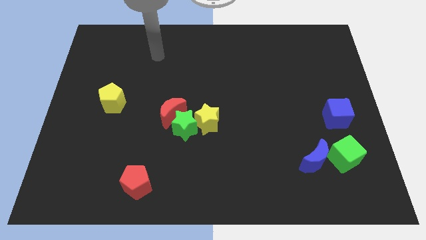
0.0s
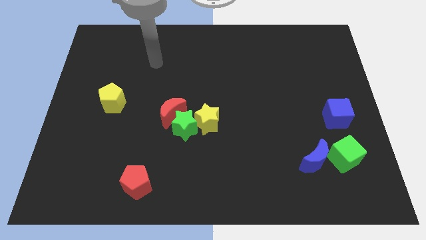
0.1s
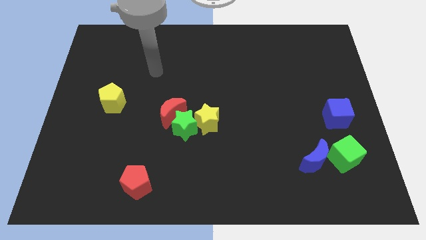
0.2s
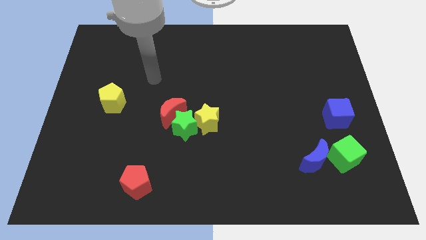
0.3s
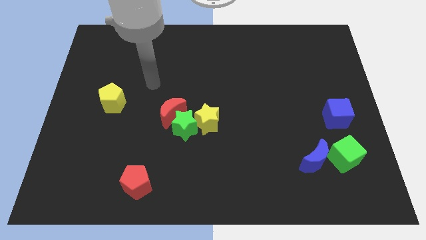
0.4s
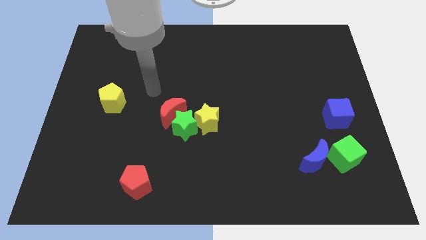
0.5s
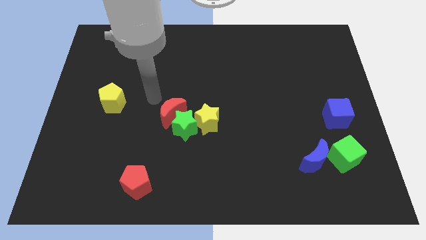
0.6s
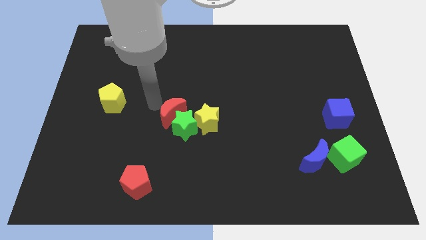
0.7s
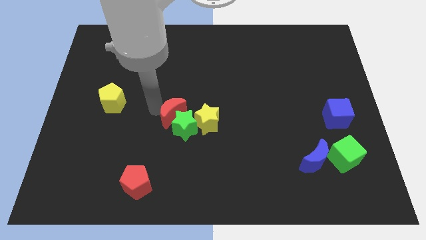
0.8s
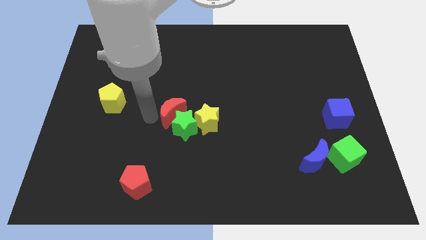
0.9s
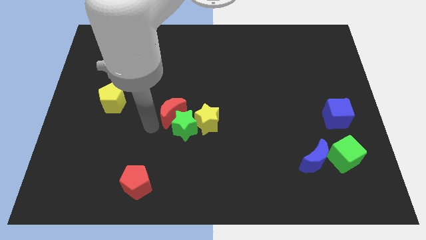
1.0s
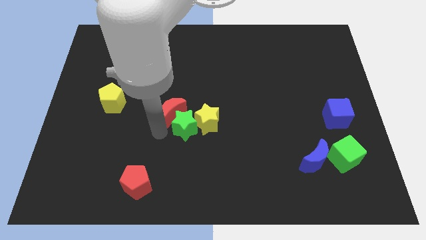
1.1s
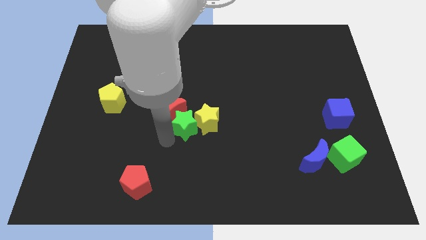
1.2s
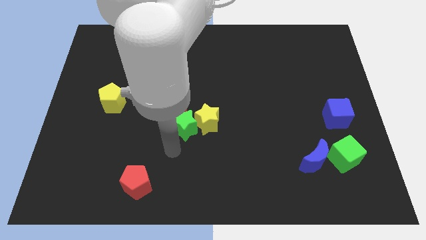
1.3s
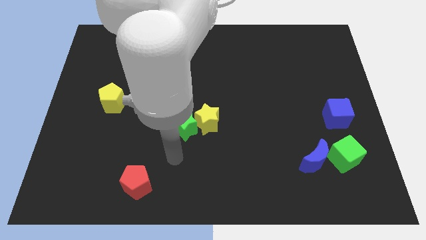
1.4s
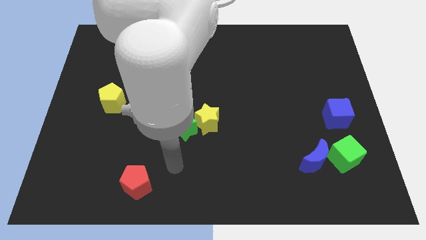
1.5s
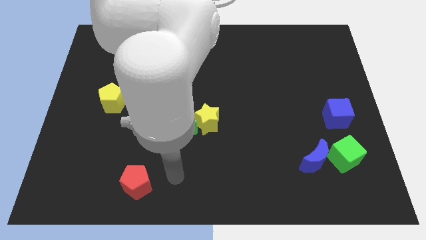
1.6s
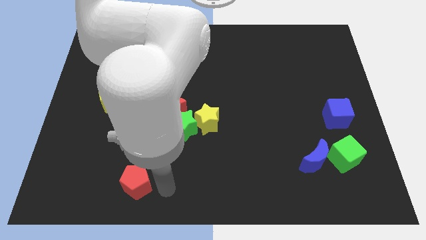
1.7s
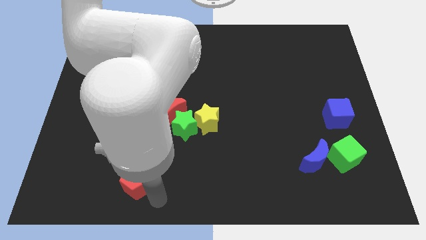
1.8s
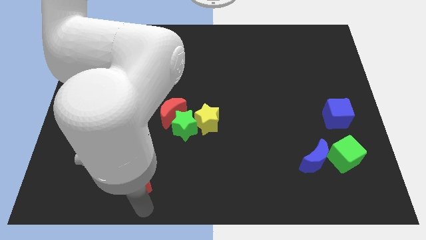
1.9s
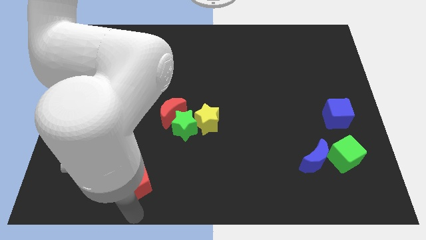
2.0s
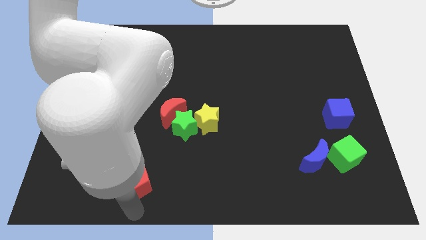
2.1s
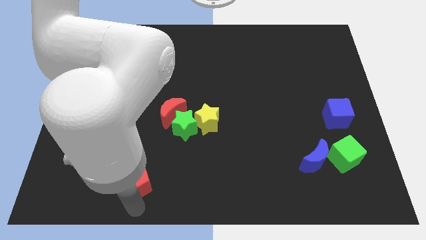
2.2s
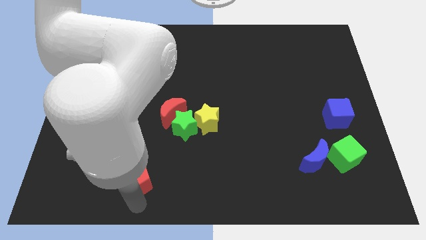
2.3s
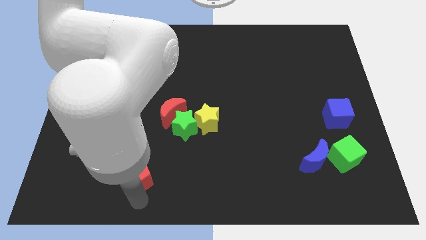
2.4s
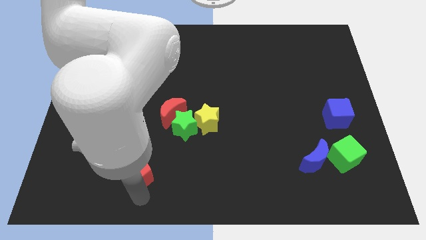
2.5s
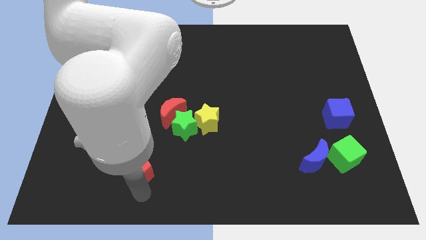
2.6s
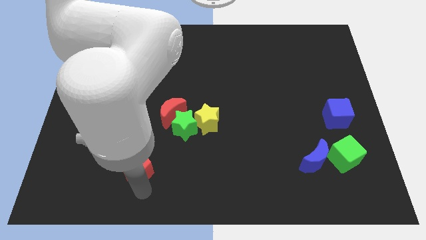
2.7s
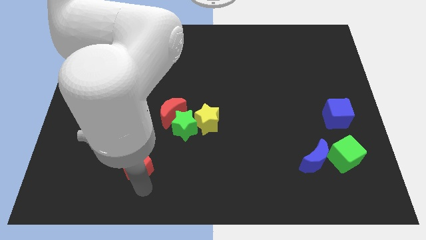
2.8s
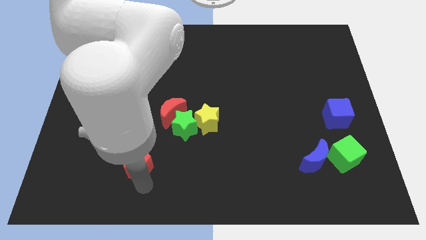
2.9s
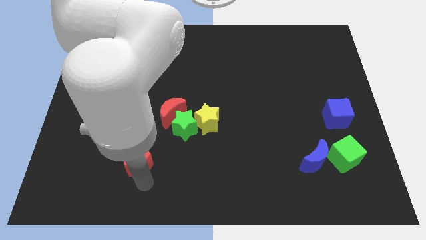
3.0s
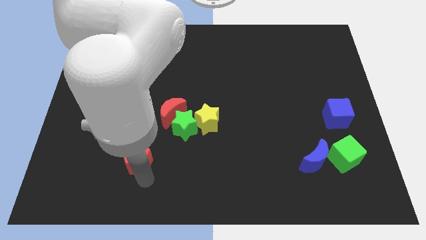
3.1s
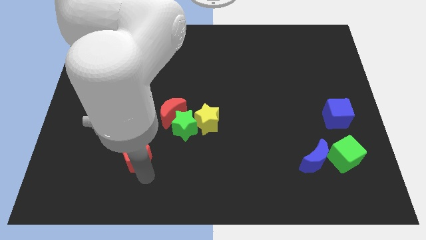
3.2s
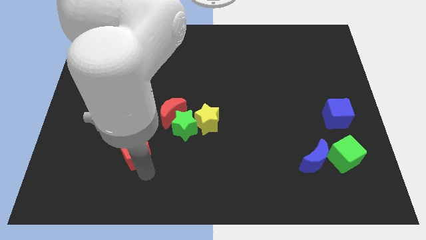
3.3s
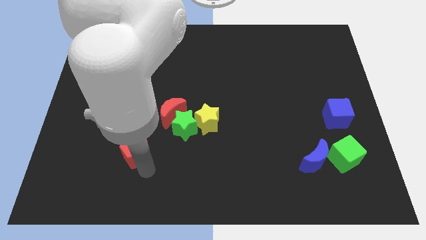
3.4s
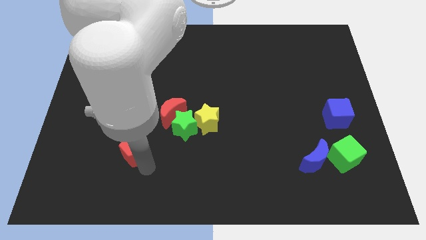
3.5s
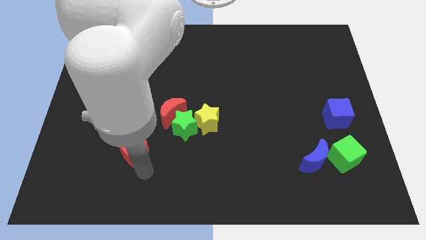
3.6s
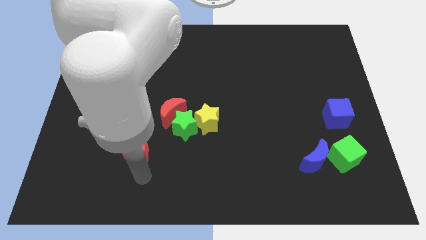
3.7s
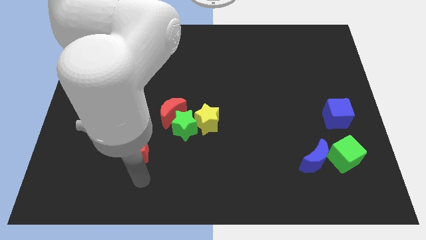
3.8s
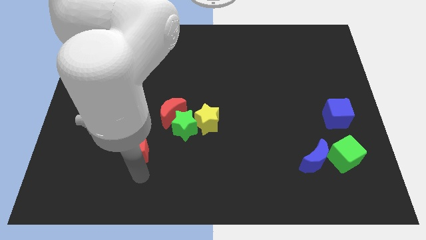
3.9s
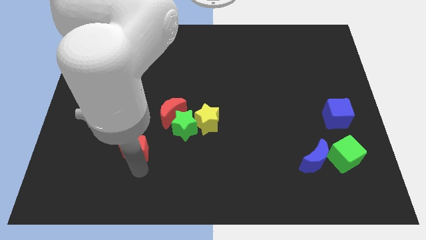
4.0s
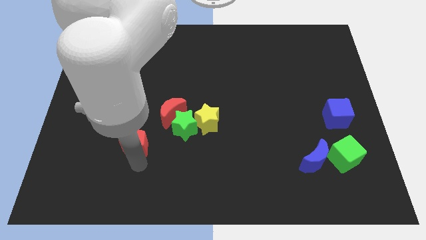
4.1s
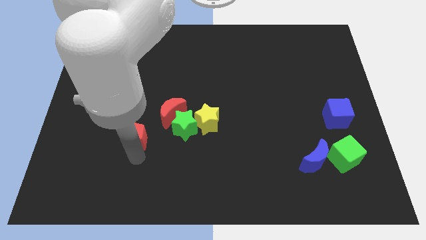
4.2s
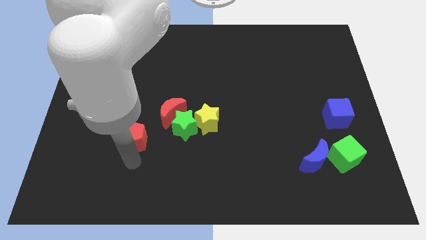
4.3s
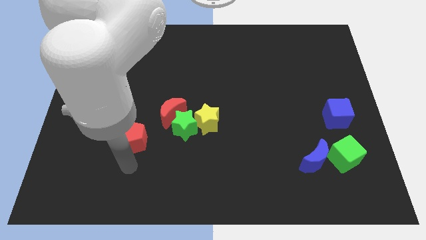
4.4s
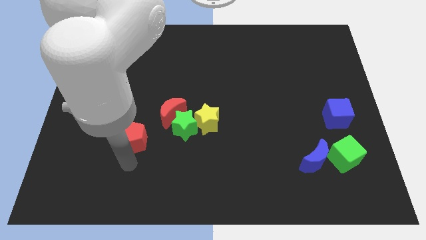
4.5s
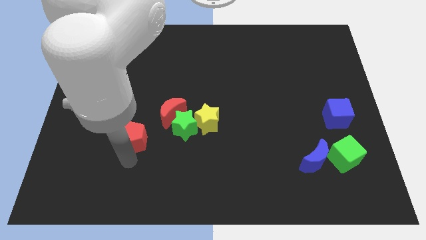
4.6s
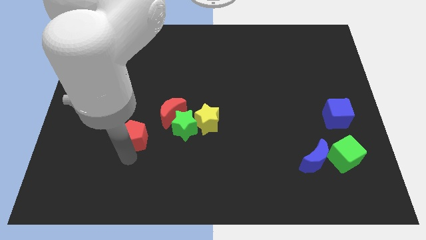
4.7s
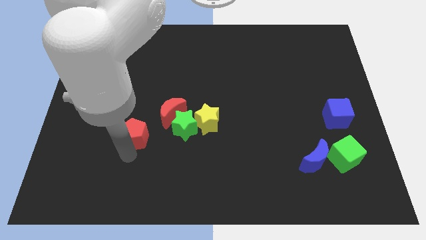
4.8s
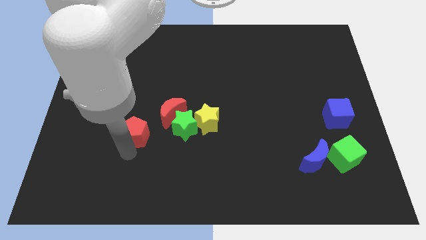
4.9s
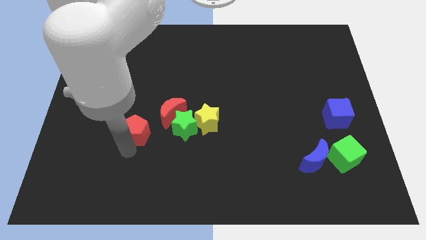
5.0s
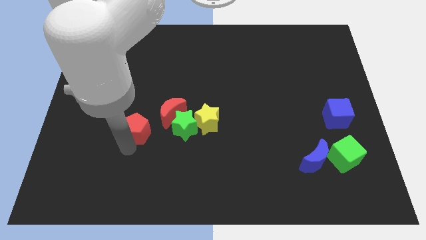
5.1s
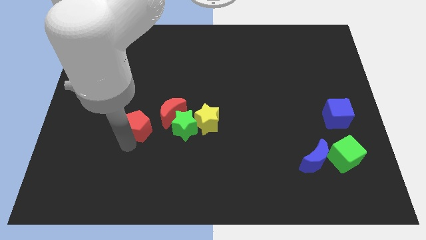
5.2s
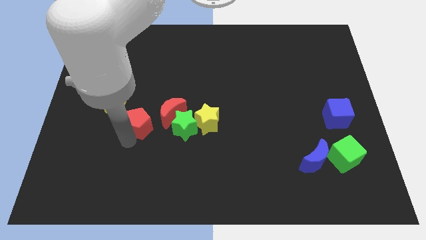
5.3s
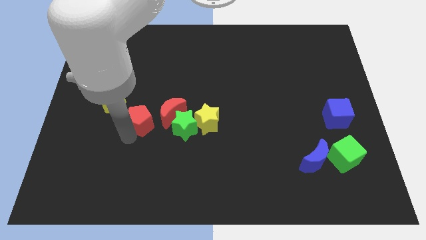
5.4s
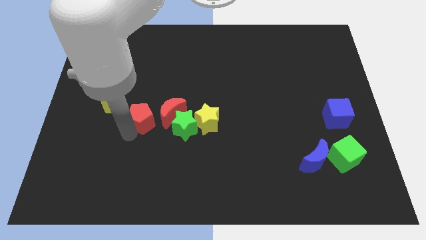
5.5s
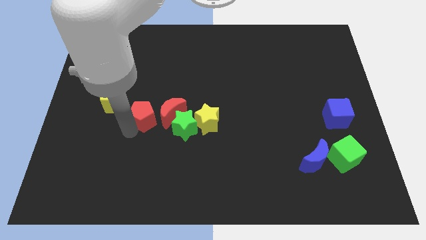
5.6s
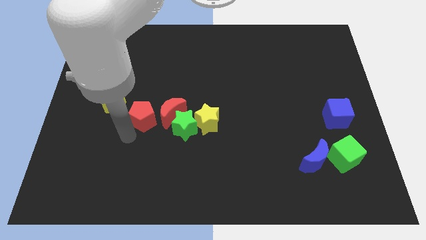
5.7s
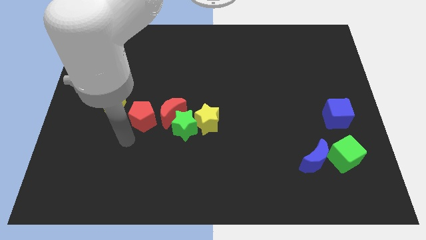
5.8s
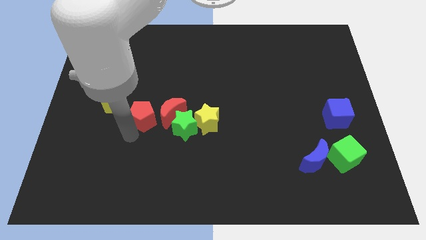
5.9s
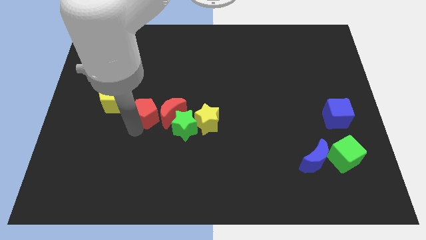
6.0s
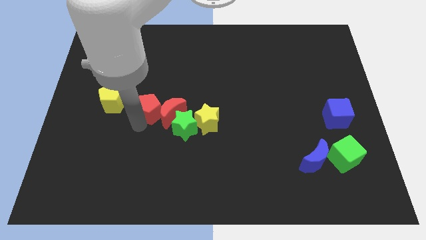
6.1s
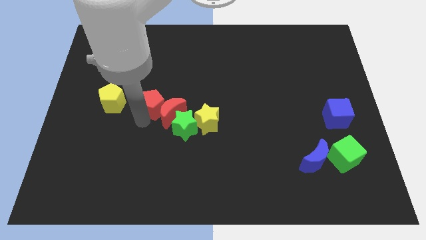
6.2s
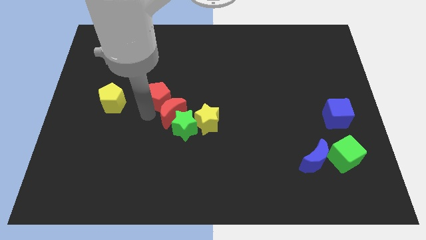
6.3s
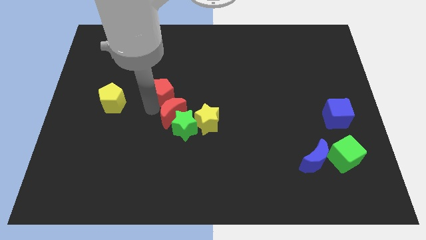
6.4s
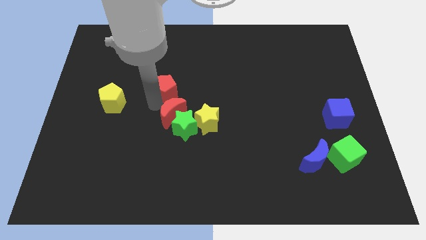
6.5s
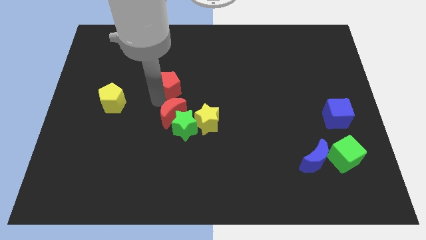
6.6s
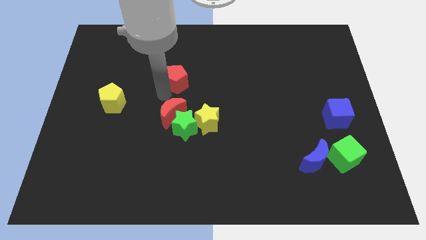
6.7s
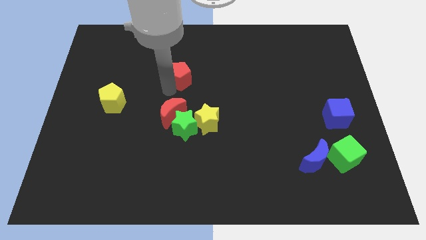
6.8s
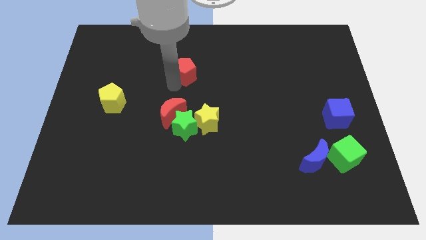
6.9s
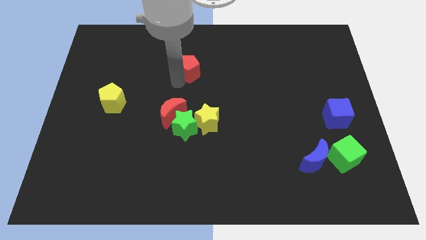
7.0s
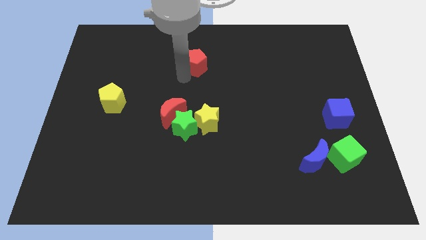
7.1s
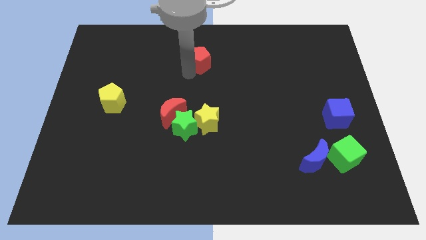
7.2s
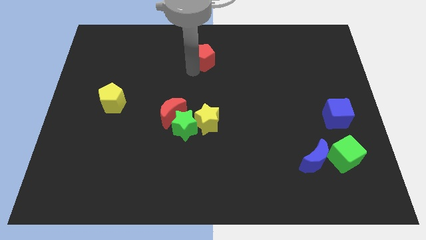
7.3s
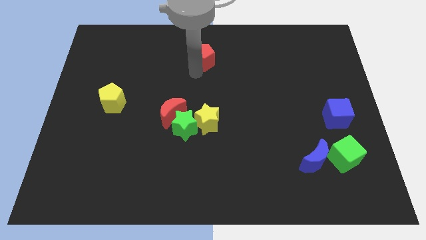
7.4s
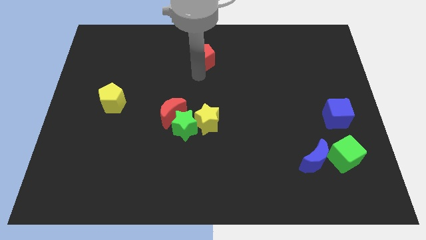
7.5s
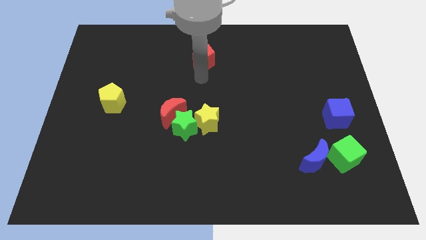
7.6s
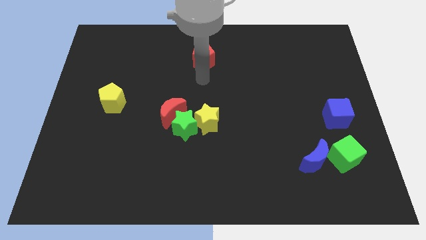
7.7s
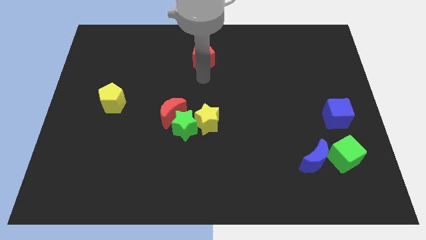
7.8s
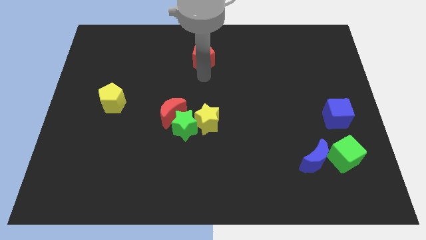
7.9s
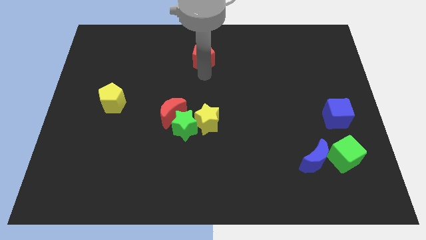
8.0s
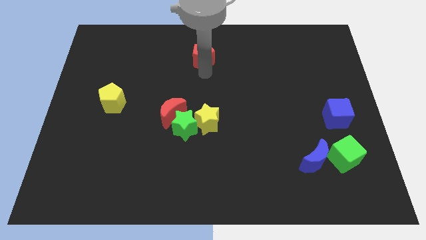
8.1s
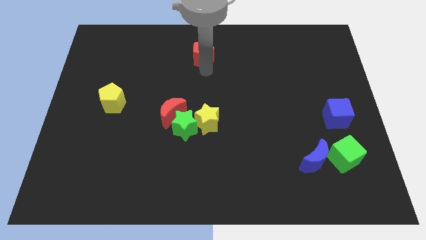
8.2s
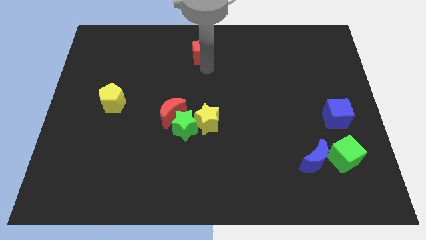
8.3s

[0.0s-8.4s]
put the red pentagon to the top
